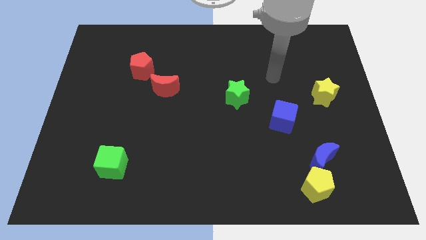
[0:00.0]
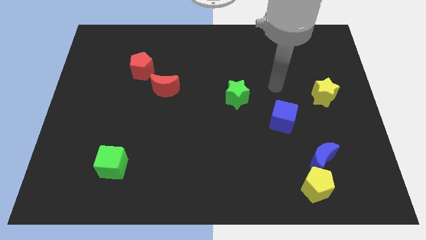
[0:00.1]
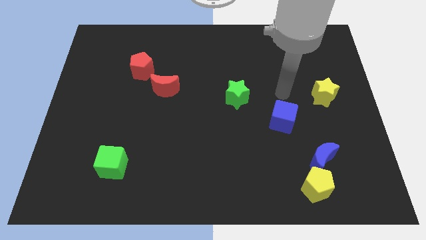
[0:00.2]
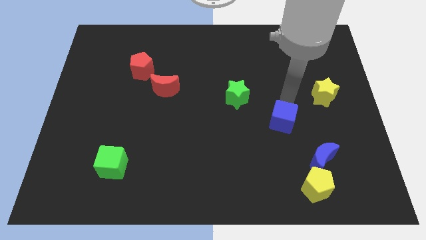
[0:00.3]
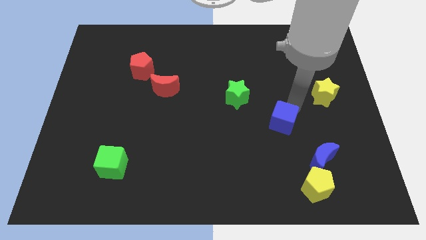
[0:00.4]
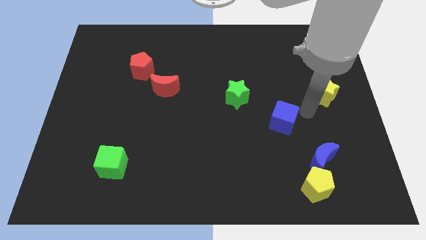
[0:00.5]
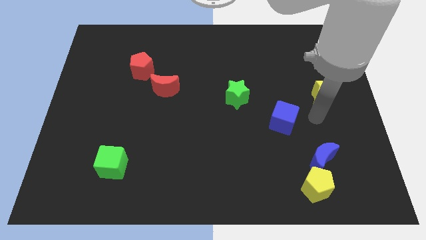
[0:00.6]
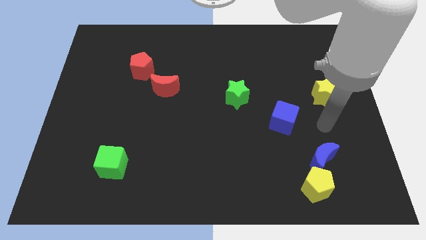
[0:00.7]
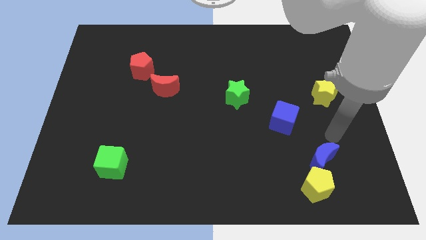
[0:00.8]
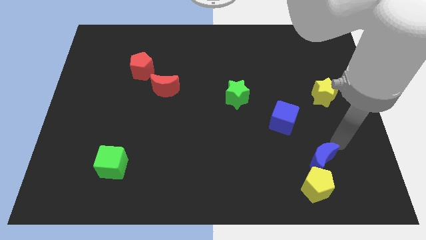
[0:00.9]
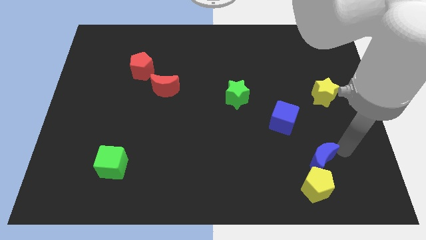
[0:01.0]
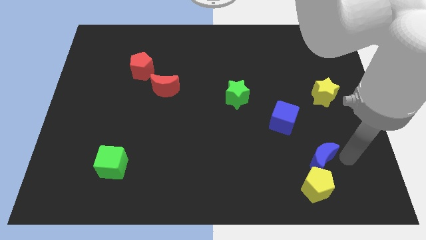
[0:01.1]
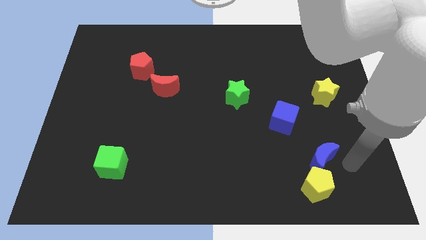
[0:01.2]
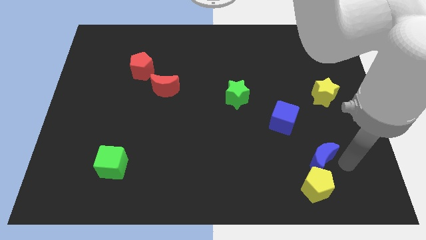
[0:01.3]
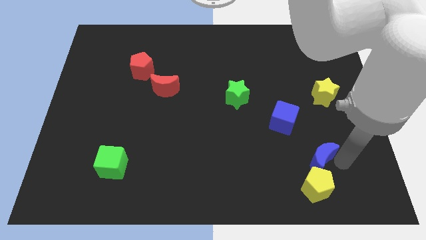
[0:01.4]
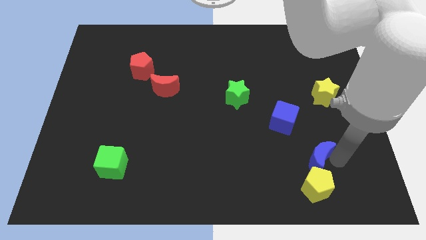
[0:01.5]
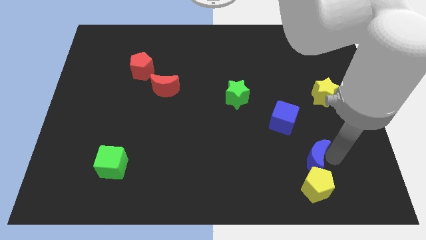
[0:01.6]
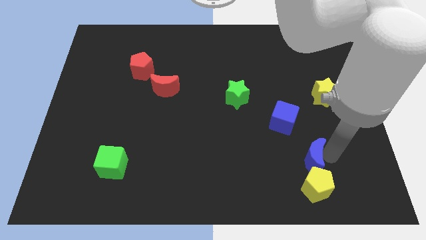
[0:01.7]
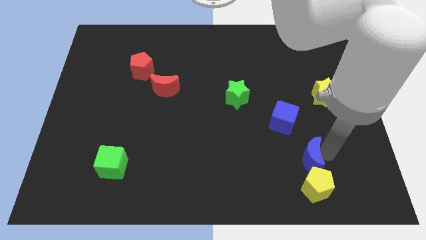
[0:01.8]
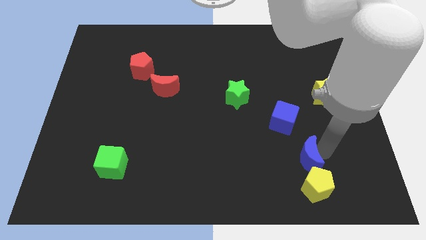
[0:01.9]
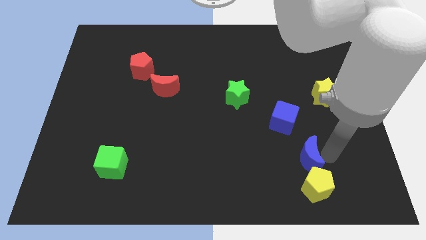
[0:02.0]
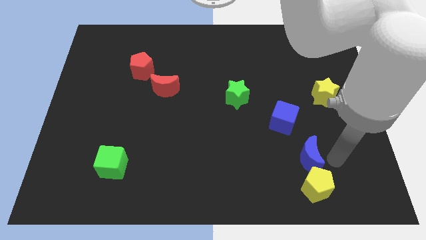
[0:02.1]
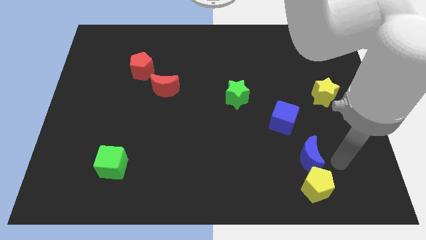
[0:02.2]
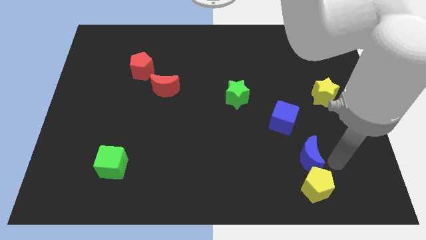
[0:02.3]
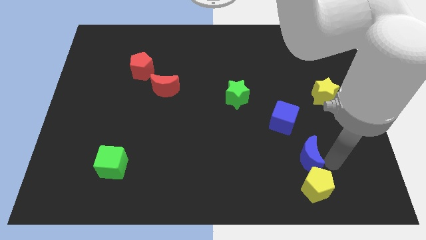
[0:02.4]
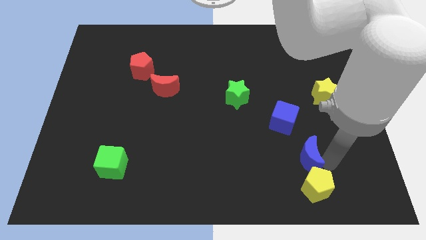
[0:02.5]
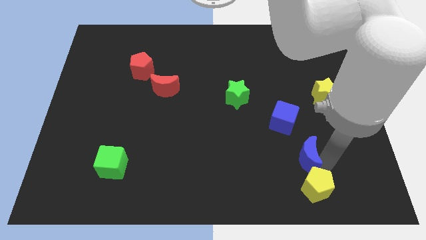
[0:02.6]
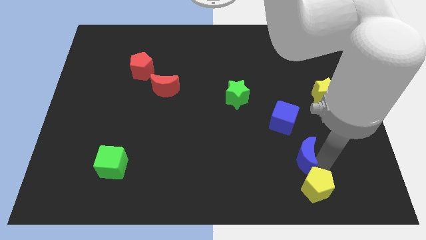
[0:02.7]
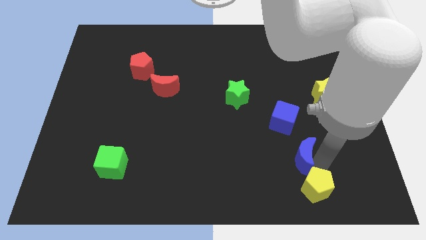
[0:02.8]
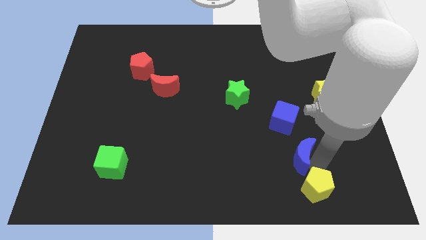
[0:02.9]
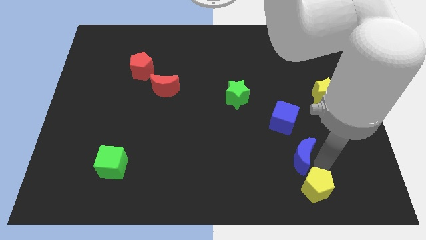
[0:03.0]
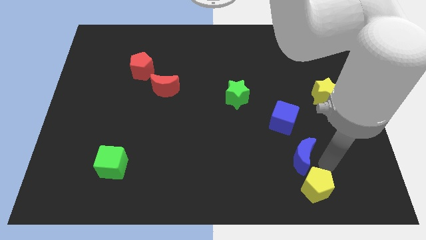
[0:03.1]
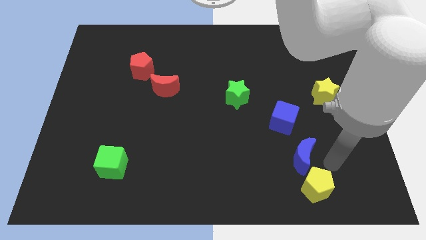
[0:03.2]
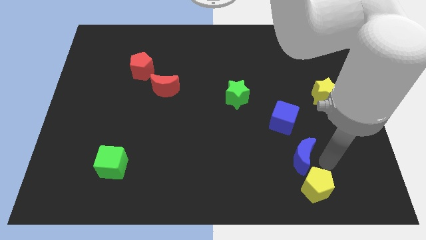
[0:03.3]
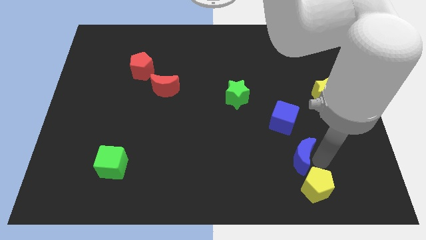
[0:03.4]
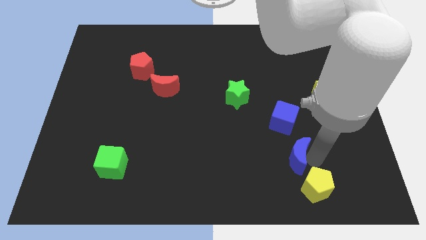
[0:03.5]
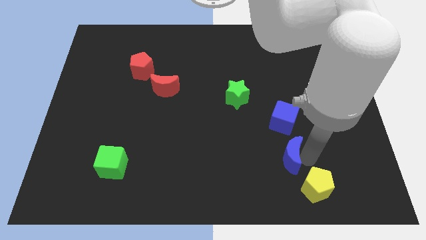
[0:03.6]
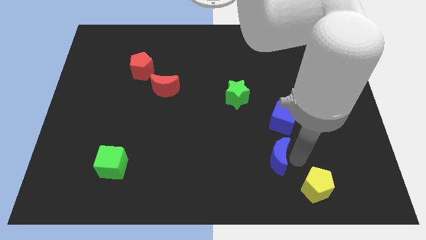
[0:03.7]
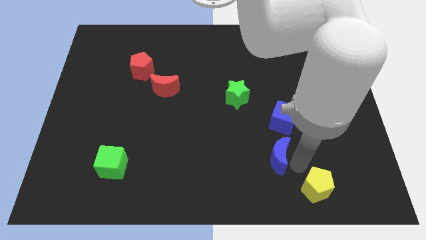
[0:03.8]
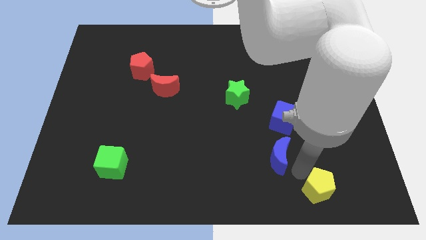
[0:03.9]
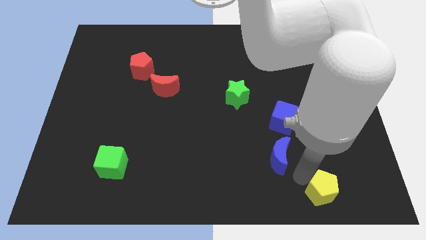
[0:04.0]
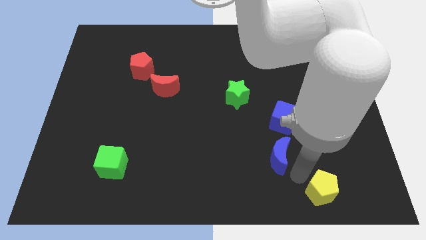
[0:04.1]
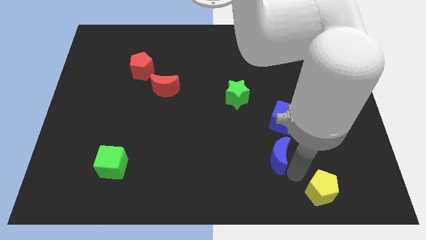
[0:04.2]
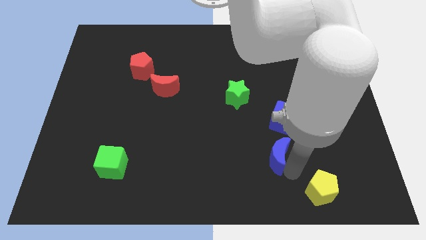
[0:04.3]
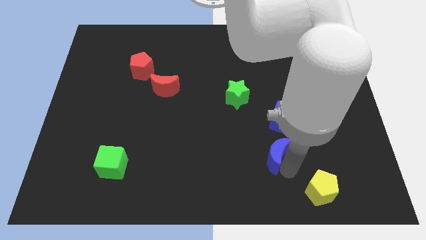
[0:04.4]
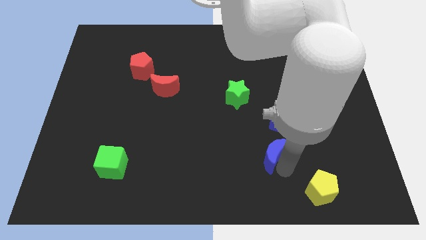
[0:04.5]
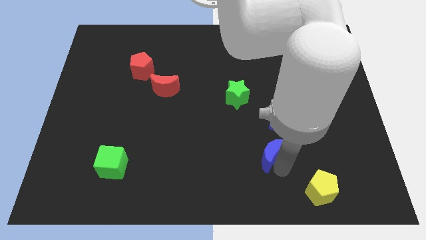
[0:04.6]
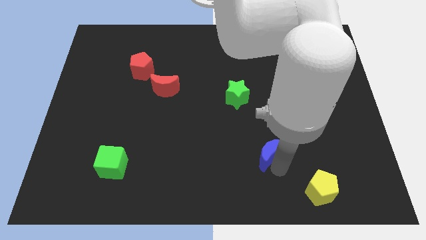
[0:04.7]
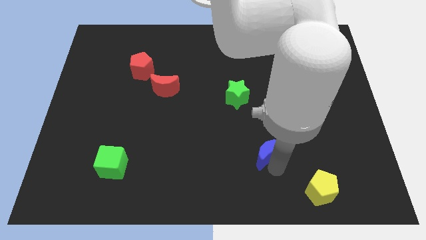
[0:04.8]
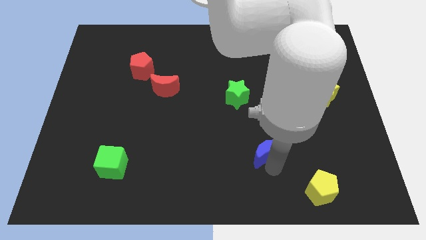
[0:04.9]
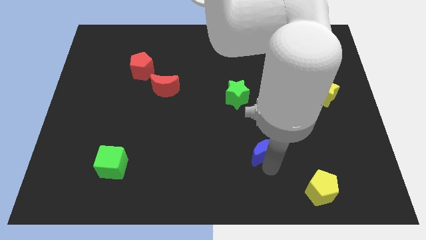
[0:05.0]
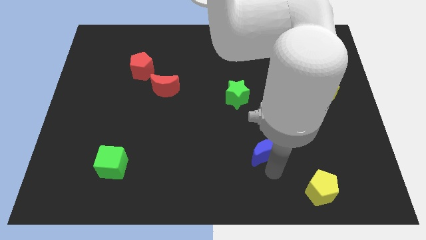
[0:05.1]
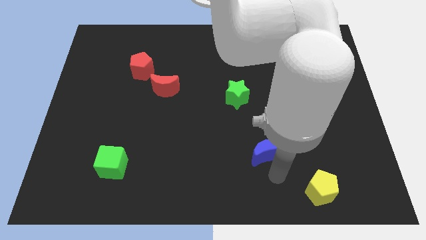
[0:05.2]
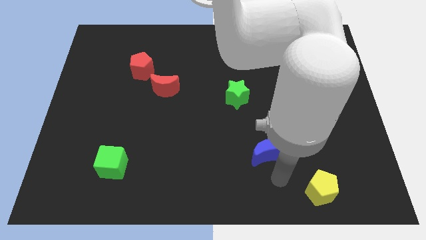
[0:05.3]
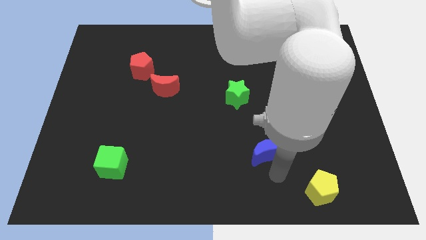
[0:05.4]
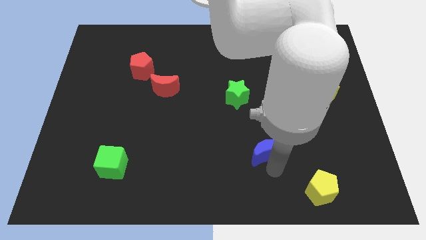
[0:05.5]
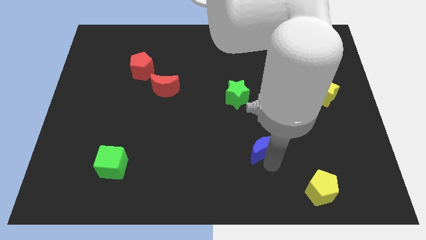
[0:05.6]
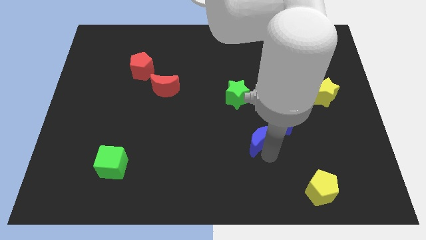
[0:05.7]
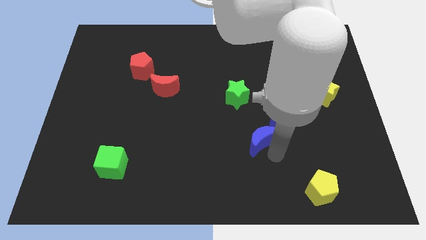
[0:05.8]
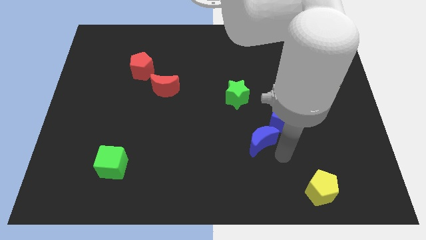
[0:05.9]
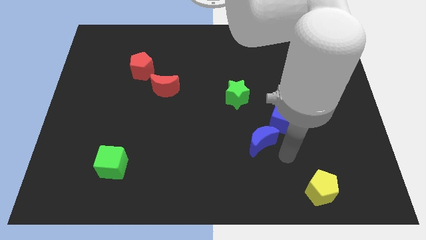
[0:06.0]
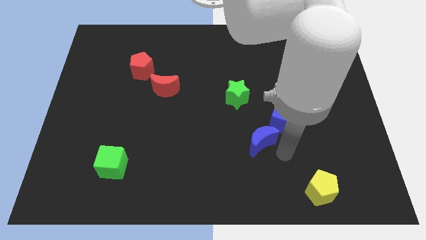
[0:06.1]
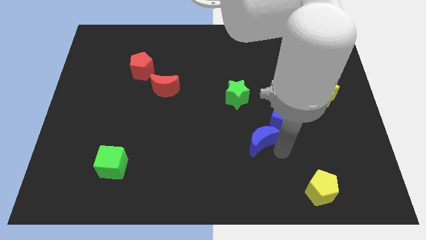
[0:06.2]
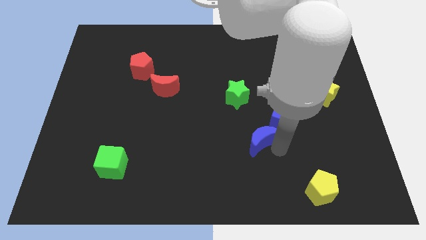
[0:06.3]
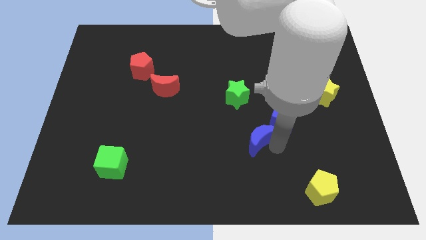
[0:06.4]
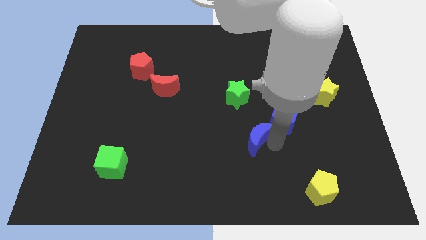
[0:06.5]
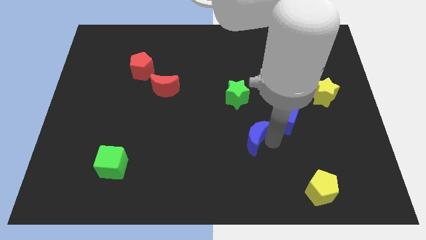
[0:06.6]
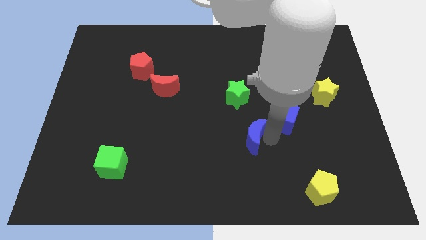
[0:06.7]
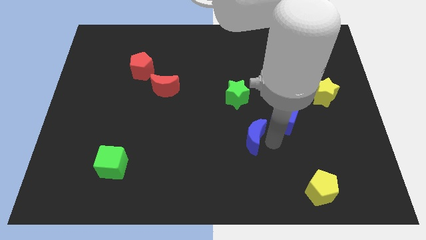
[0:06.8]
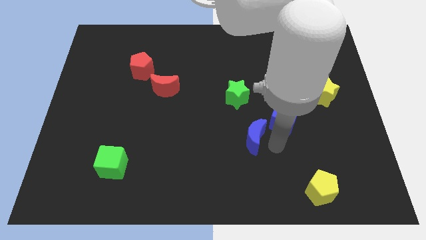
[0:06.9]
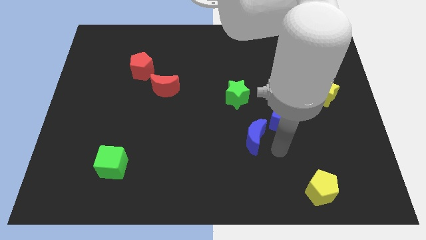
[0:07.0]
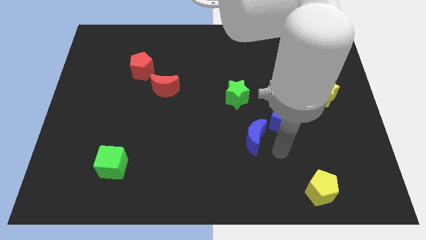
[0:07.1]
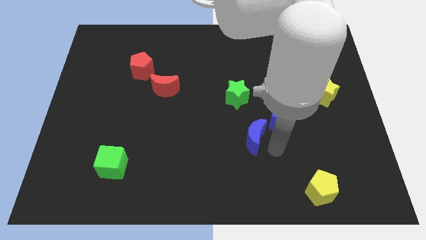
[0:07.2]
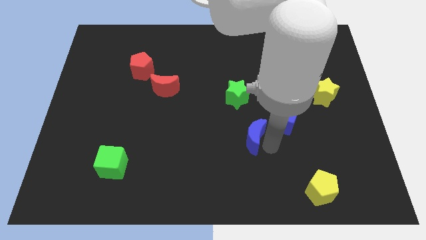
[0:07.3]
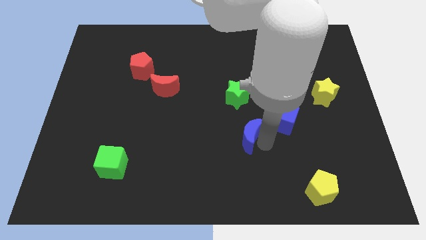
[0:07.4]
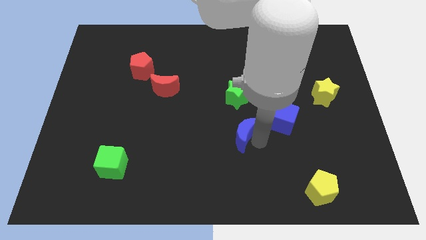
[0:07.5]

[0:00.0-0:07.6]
push the blue moon to the middle
